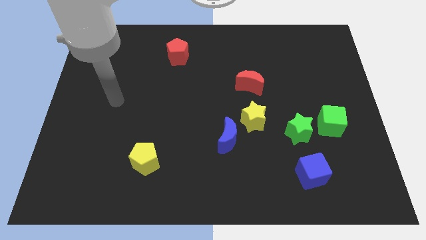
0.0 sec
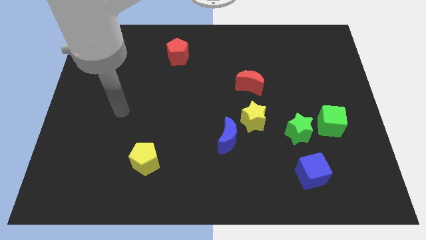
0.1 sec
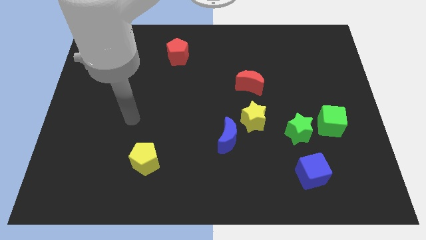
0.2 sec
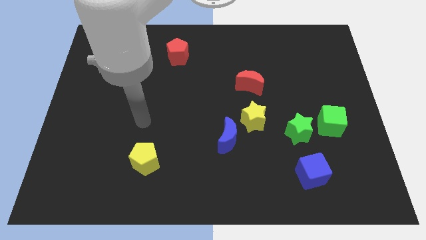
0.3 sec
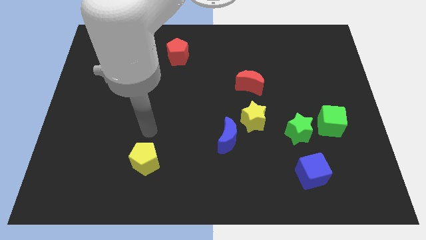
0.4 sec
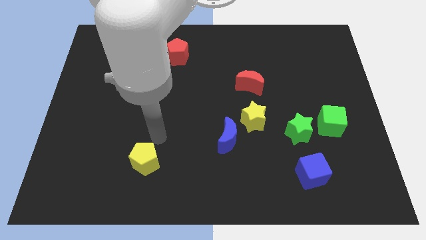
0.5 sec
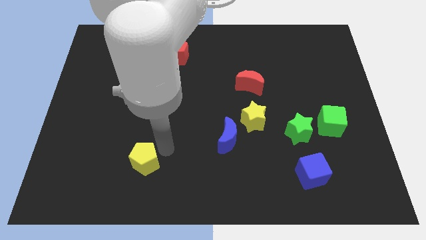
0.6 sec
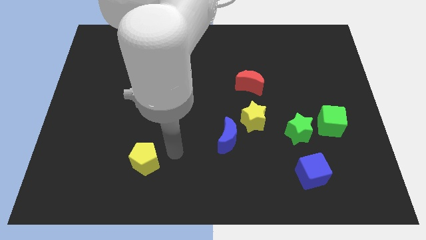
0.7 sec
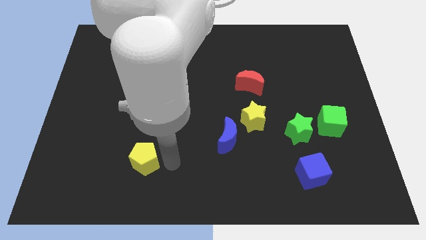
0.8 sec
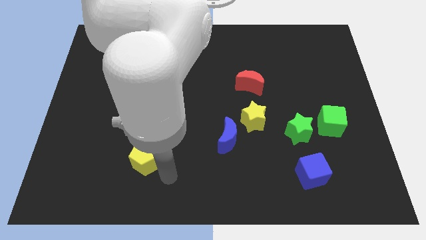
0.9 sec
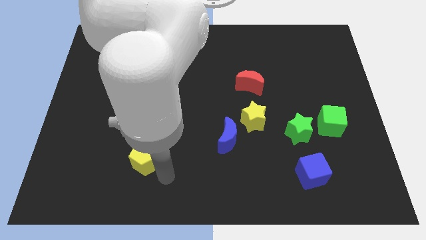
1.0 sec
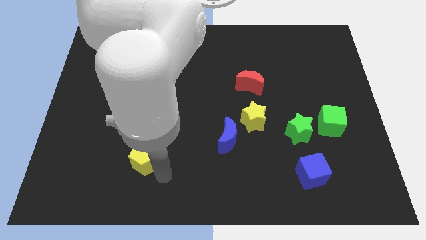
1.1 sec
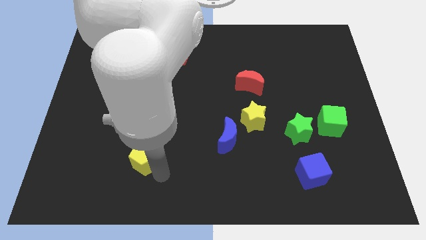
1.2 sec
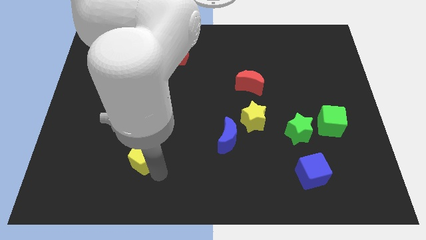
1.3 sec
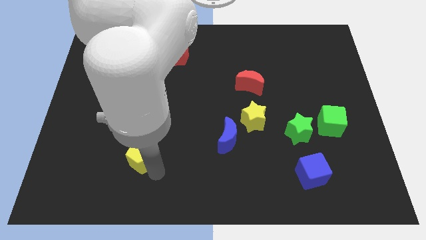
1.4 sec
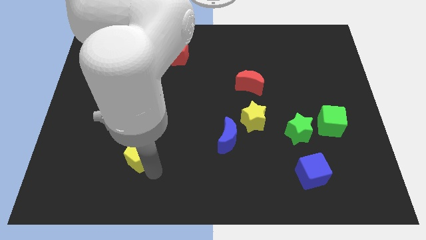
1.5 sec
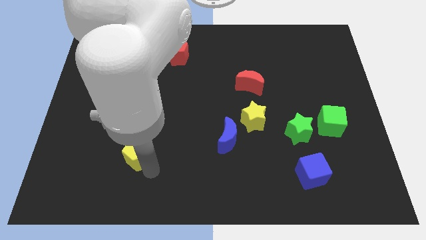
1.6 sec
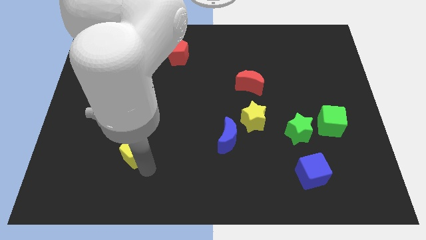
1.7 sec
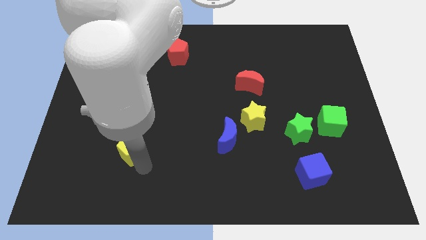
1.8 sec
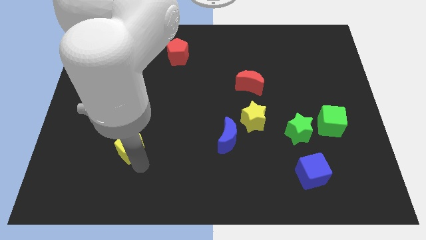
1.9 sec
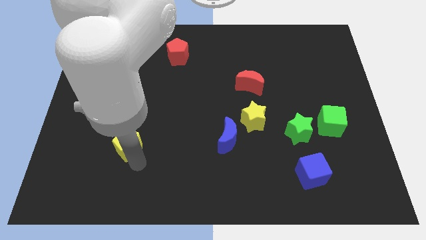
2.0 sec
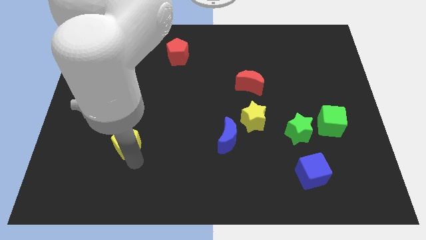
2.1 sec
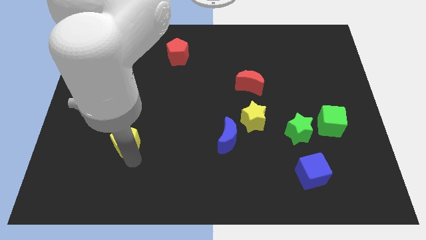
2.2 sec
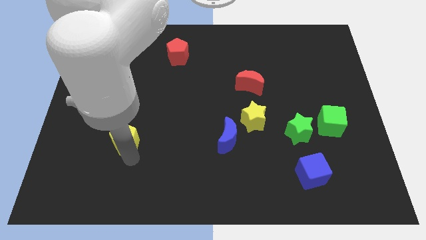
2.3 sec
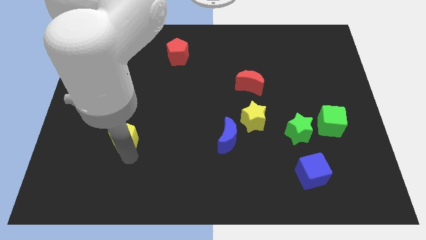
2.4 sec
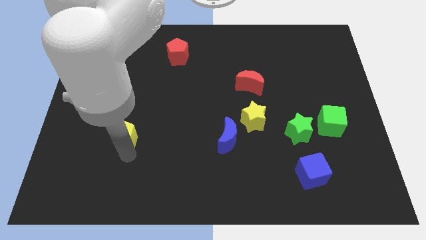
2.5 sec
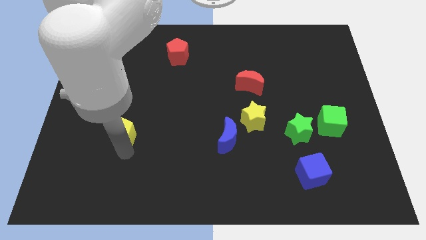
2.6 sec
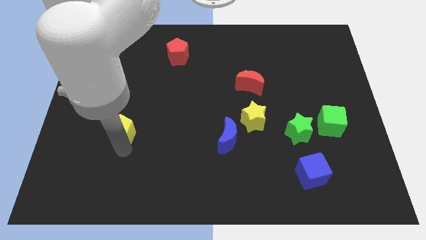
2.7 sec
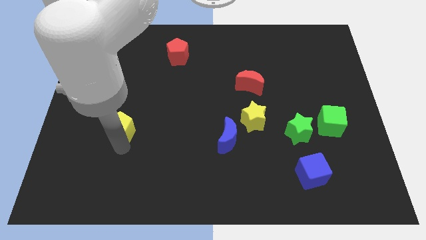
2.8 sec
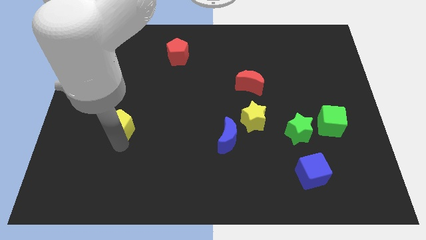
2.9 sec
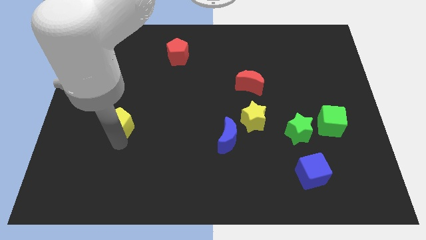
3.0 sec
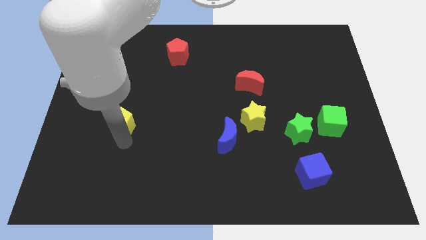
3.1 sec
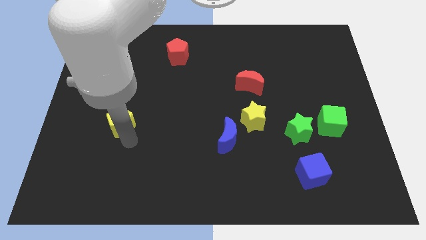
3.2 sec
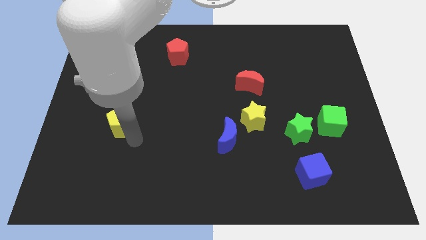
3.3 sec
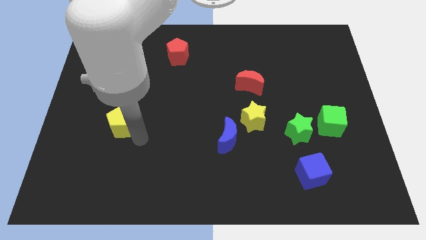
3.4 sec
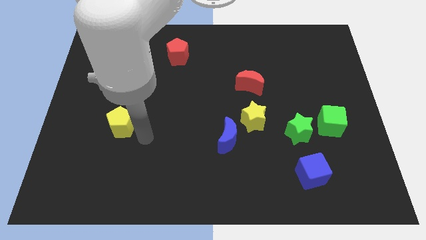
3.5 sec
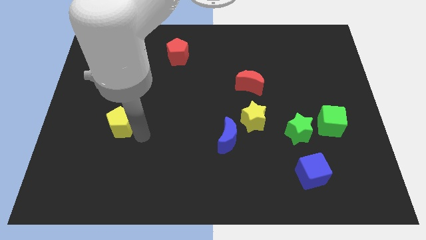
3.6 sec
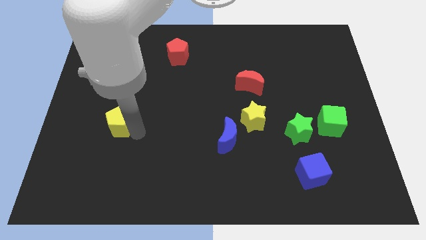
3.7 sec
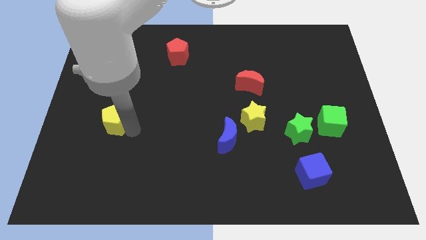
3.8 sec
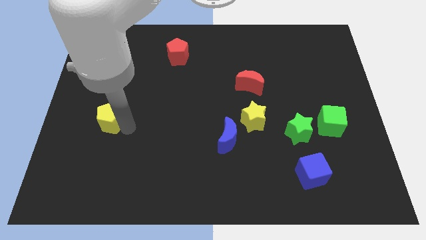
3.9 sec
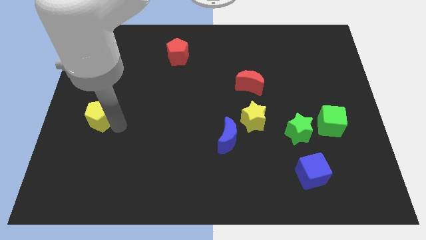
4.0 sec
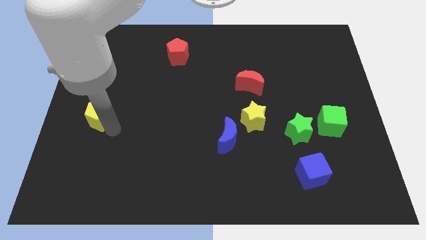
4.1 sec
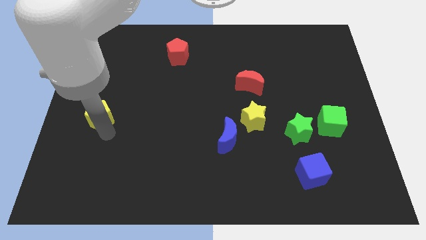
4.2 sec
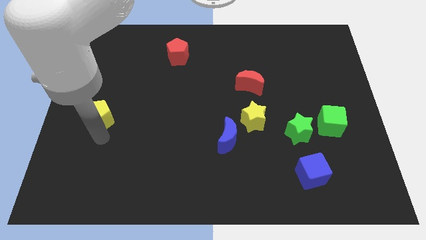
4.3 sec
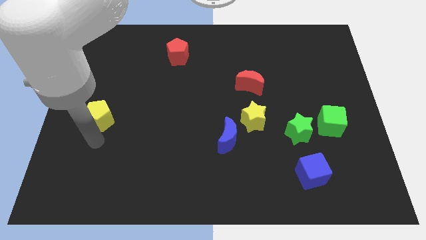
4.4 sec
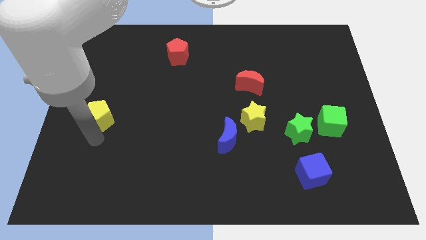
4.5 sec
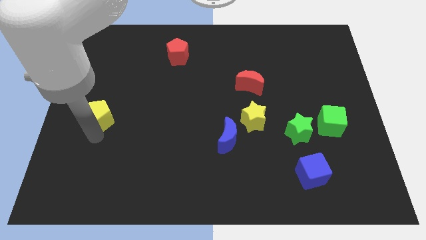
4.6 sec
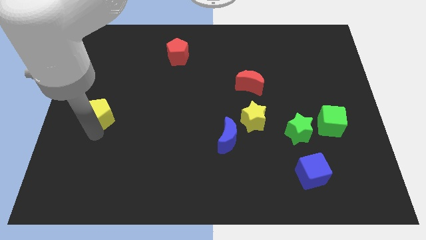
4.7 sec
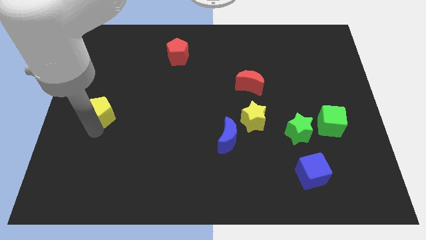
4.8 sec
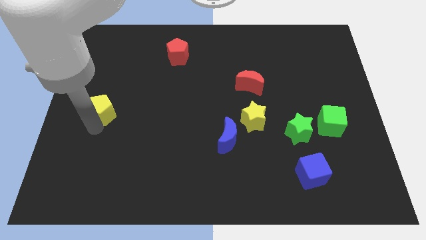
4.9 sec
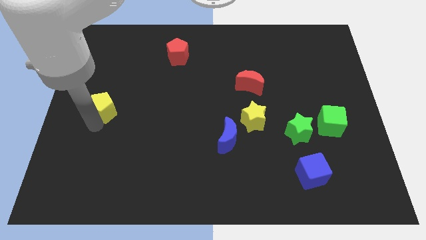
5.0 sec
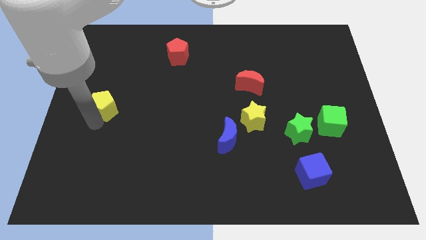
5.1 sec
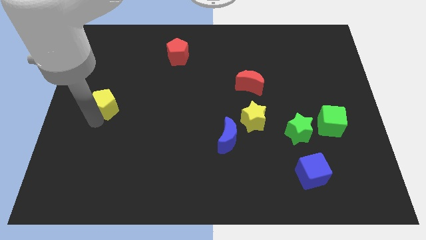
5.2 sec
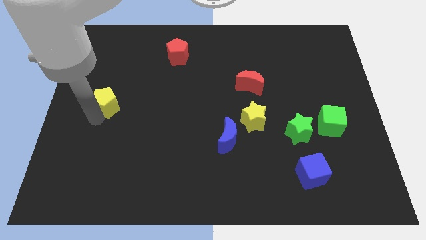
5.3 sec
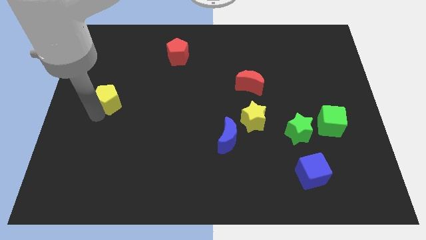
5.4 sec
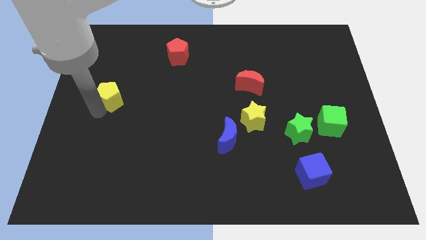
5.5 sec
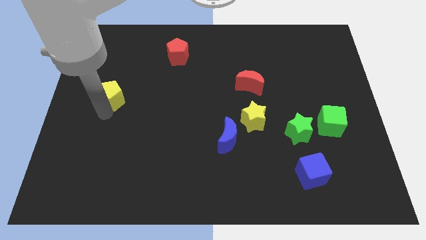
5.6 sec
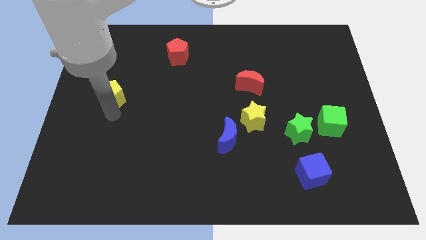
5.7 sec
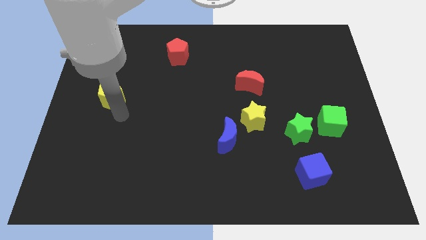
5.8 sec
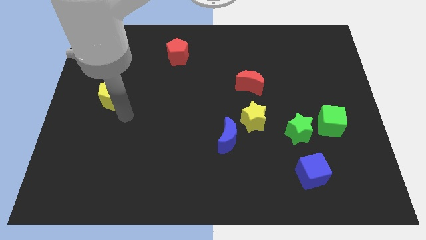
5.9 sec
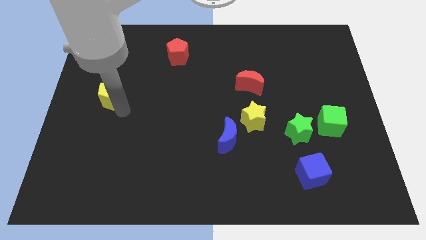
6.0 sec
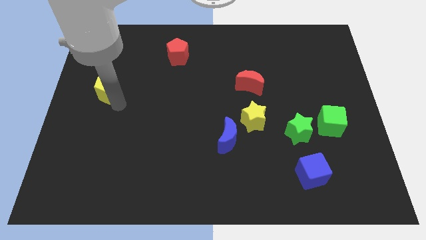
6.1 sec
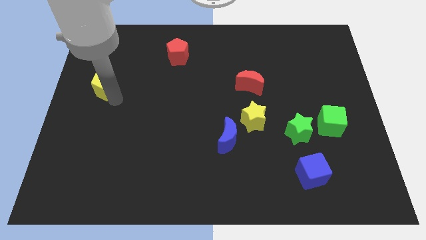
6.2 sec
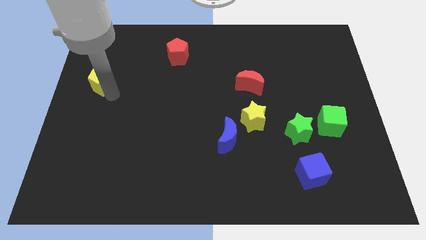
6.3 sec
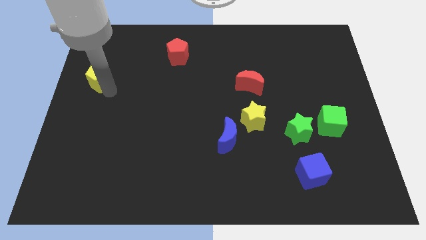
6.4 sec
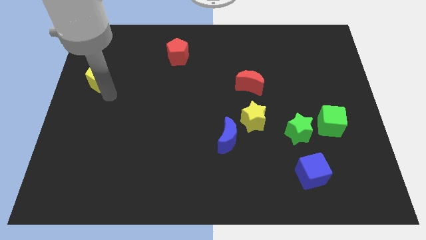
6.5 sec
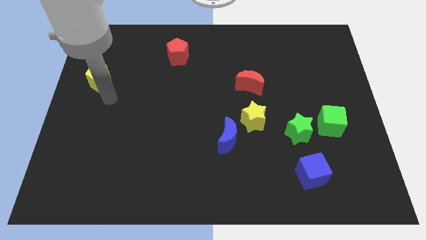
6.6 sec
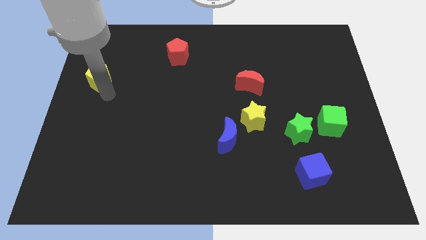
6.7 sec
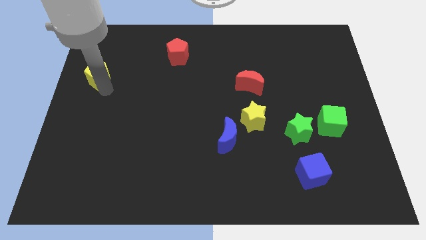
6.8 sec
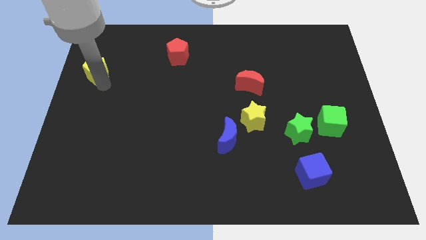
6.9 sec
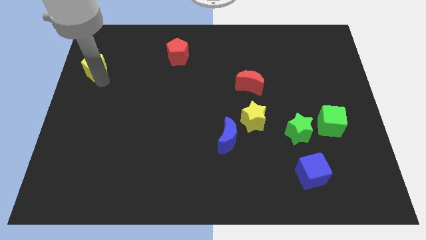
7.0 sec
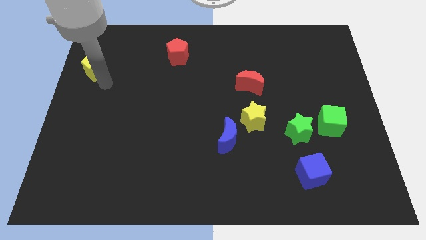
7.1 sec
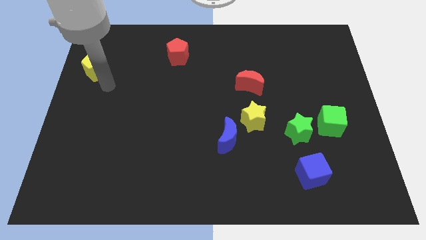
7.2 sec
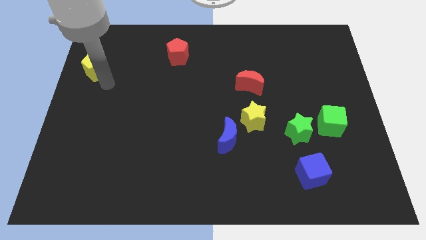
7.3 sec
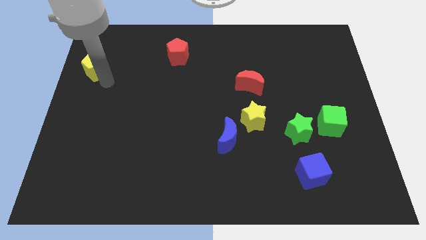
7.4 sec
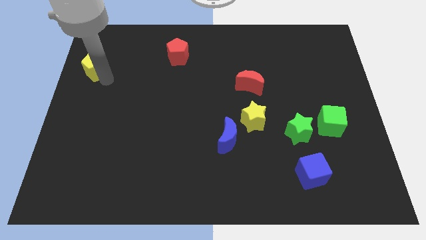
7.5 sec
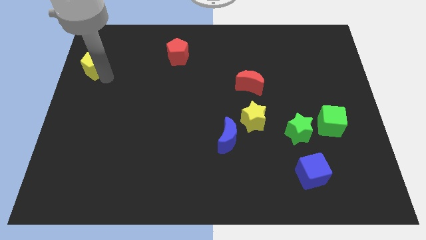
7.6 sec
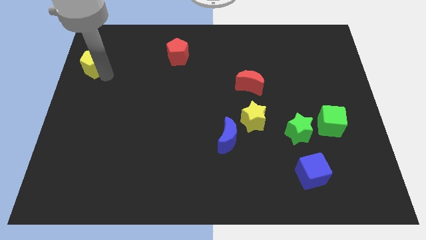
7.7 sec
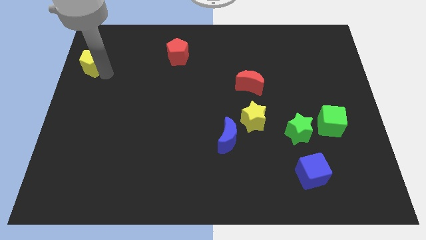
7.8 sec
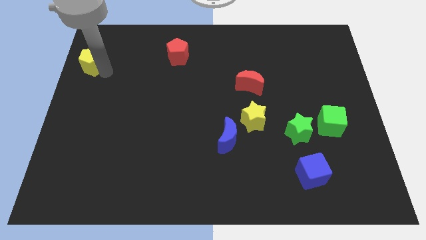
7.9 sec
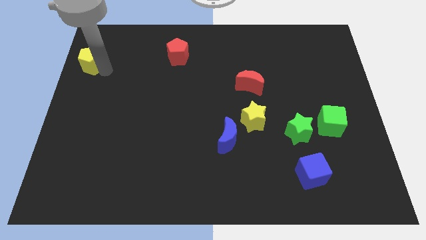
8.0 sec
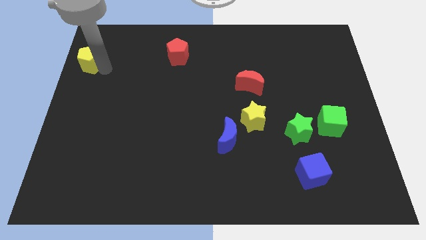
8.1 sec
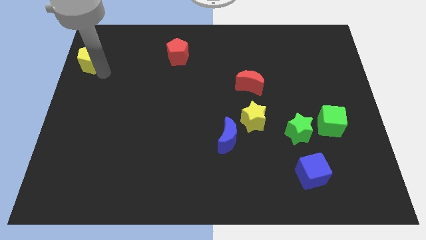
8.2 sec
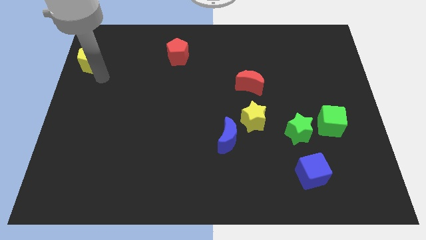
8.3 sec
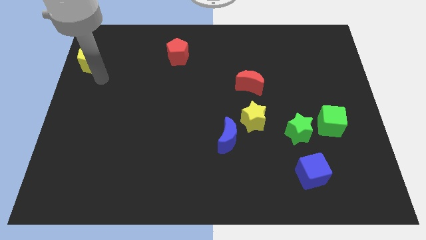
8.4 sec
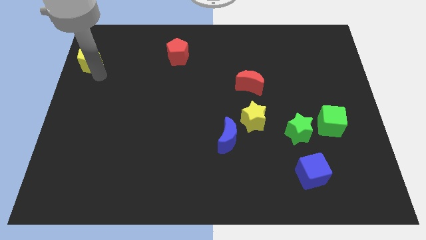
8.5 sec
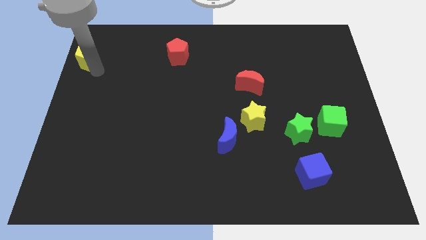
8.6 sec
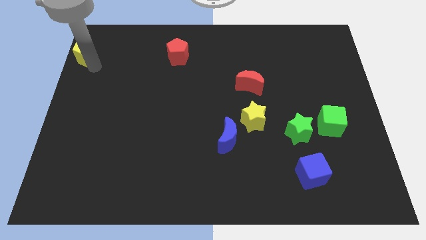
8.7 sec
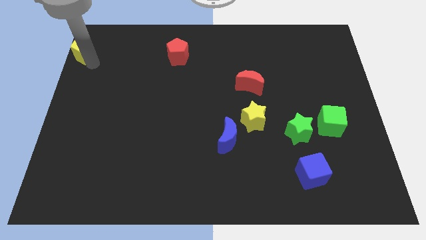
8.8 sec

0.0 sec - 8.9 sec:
push the yellow pentagon to the upper left corner
